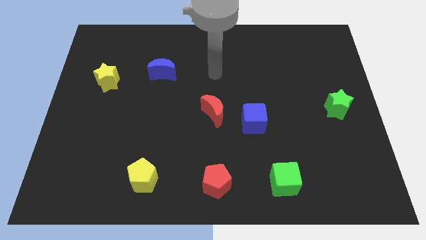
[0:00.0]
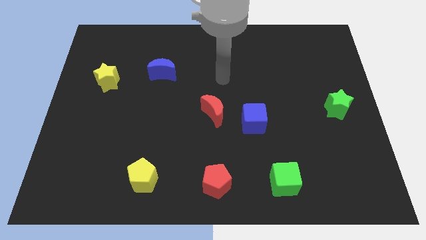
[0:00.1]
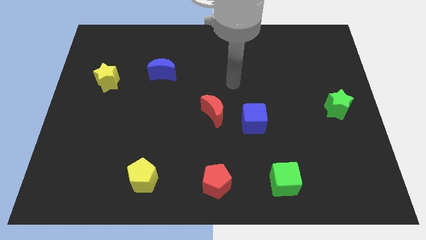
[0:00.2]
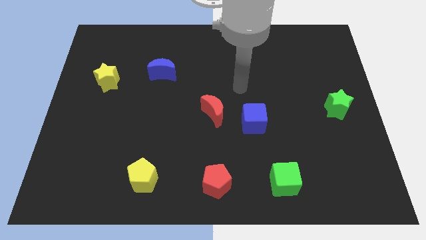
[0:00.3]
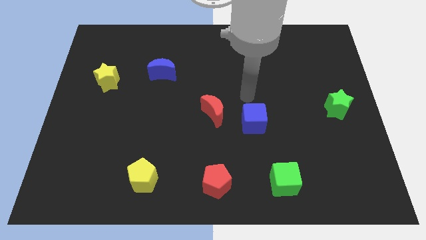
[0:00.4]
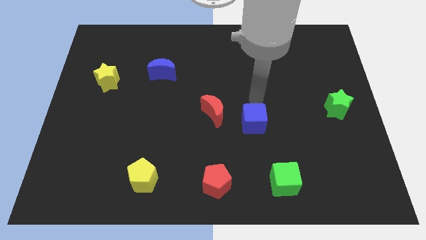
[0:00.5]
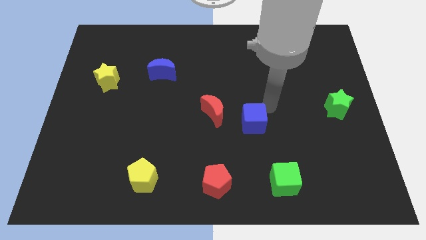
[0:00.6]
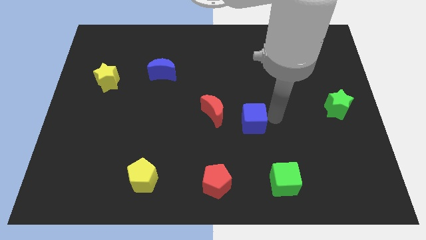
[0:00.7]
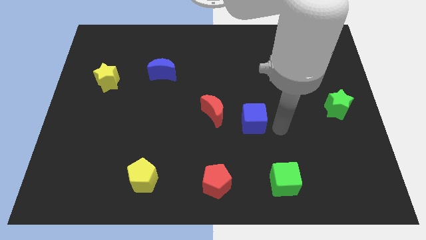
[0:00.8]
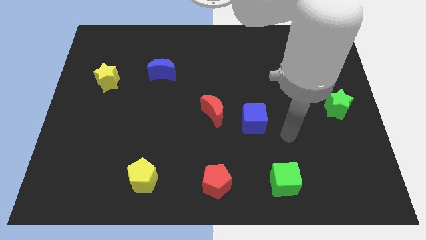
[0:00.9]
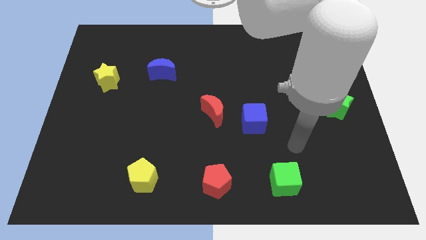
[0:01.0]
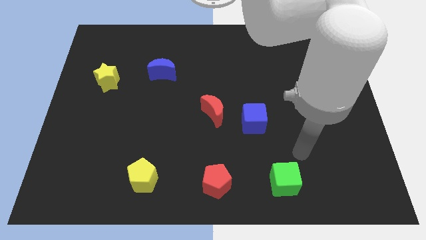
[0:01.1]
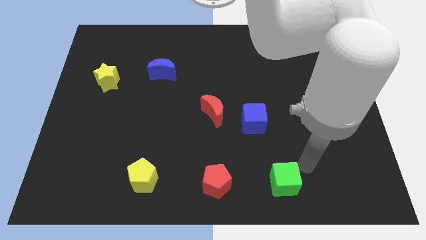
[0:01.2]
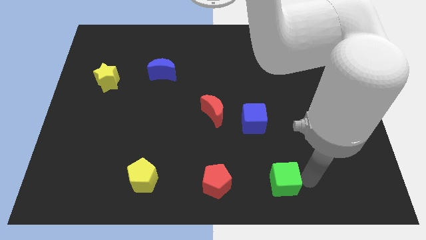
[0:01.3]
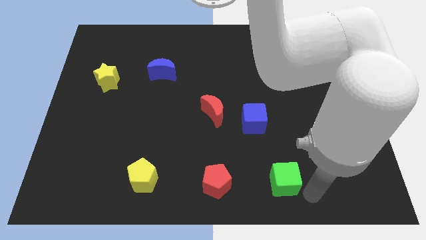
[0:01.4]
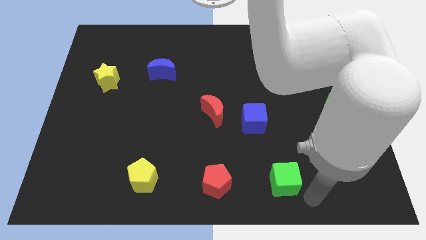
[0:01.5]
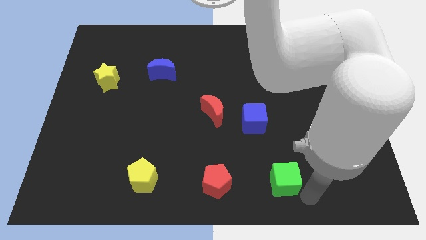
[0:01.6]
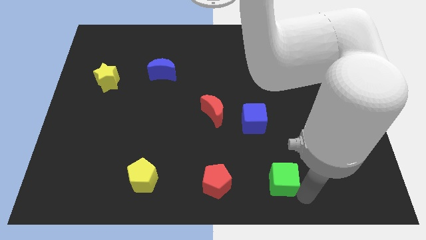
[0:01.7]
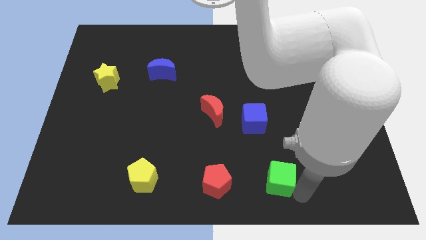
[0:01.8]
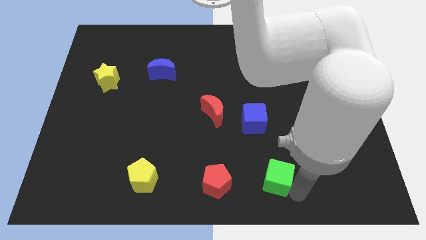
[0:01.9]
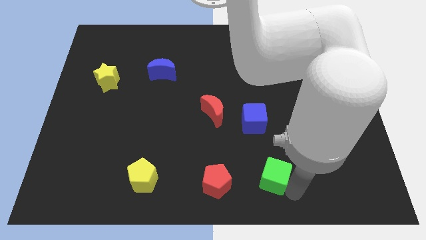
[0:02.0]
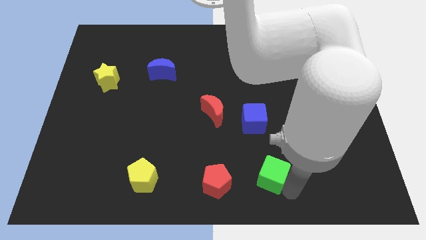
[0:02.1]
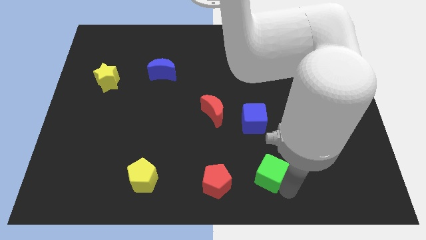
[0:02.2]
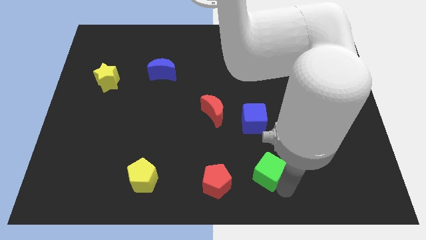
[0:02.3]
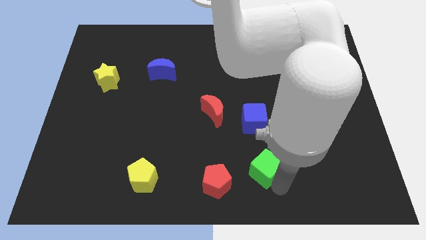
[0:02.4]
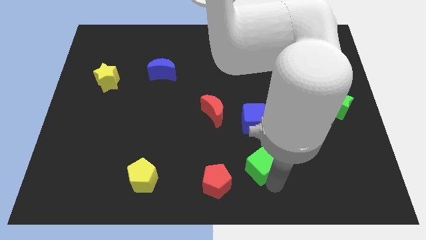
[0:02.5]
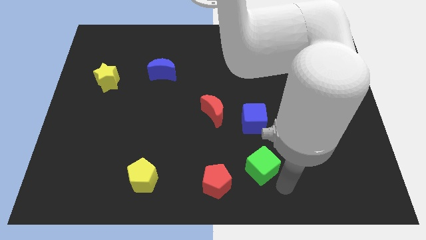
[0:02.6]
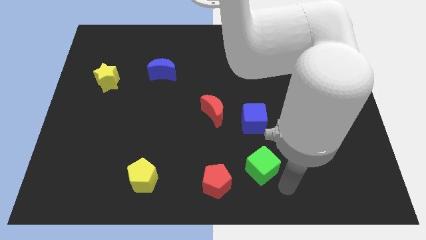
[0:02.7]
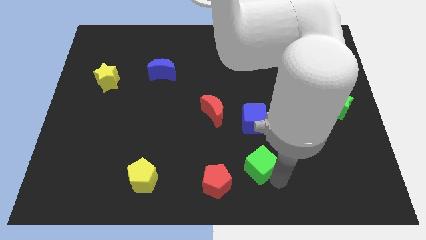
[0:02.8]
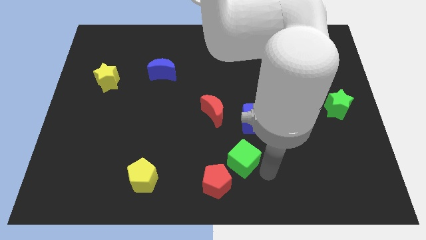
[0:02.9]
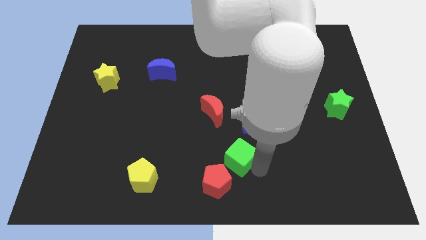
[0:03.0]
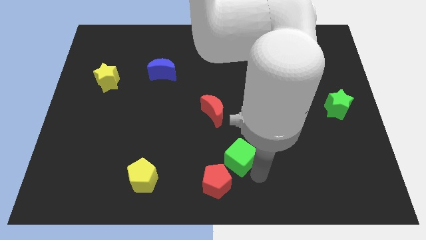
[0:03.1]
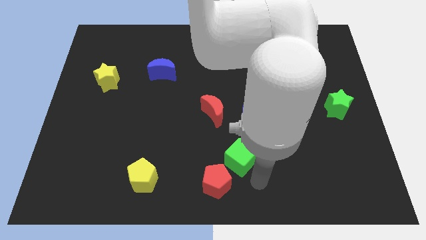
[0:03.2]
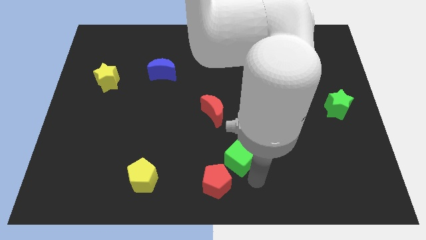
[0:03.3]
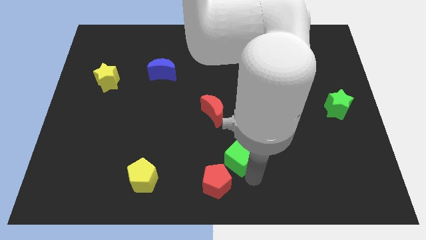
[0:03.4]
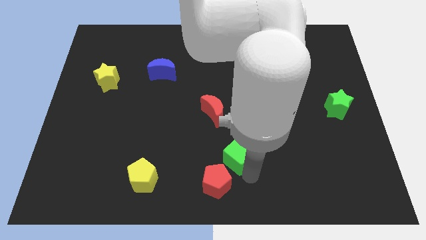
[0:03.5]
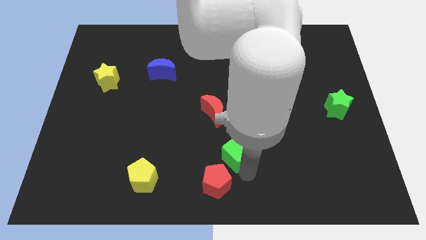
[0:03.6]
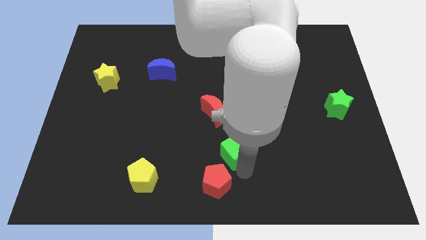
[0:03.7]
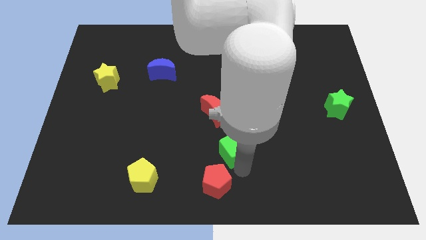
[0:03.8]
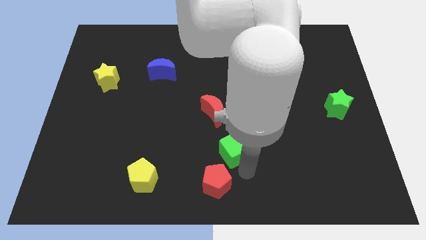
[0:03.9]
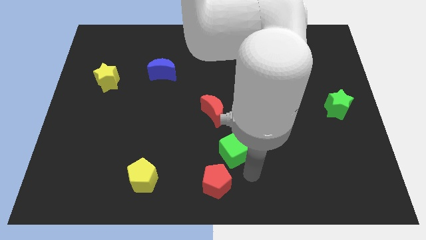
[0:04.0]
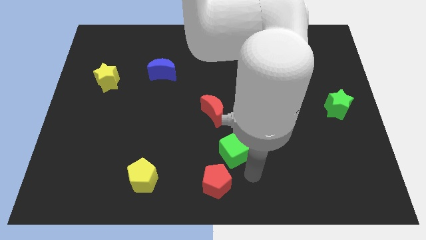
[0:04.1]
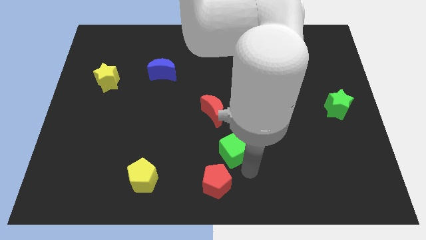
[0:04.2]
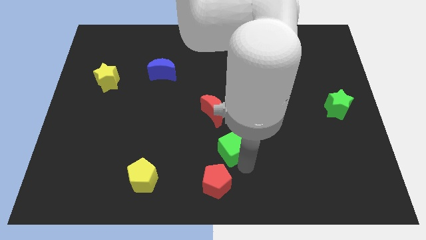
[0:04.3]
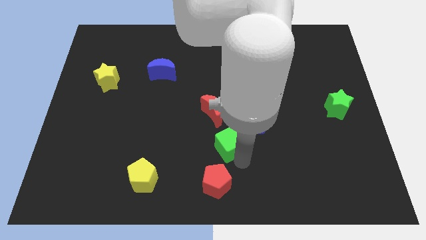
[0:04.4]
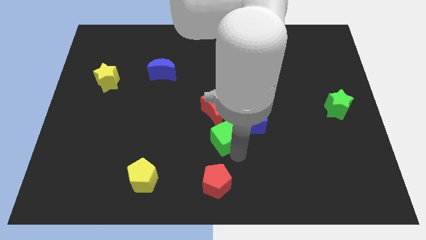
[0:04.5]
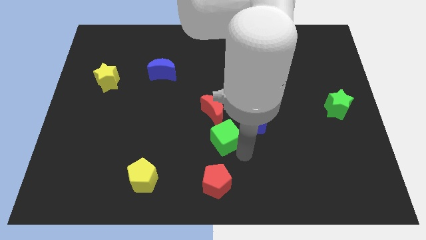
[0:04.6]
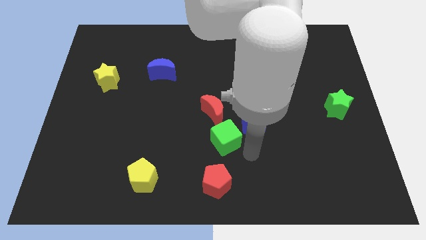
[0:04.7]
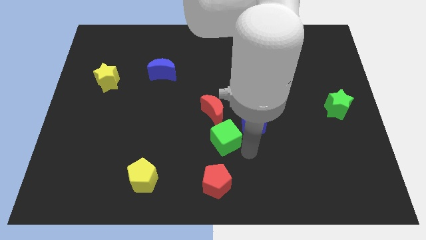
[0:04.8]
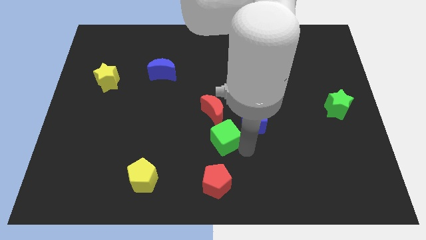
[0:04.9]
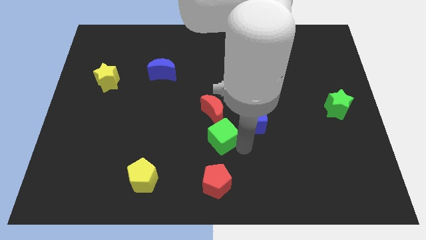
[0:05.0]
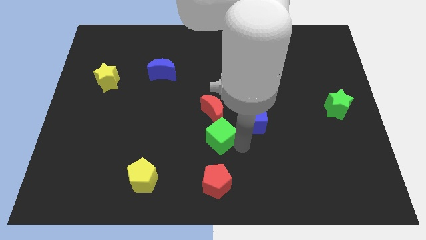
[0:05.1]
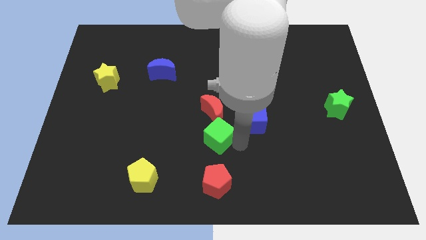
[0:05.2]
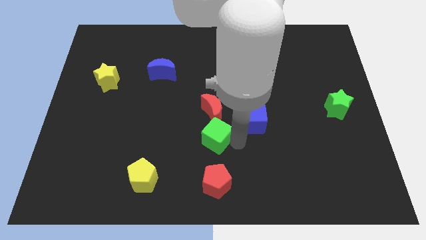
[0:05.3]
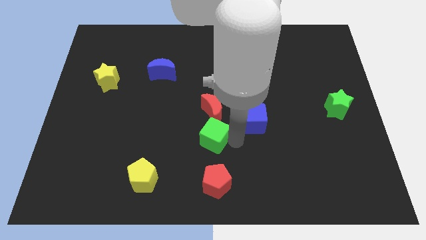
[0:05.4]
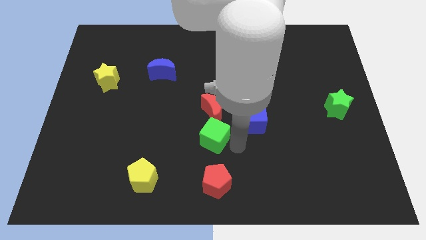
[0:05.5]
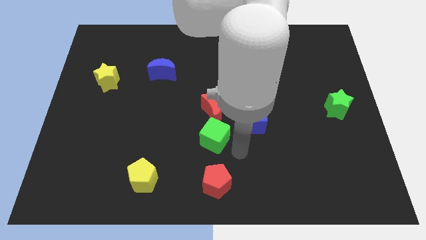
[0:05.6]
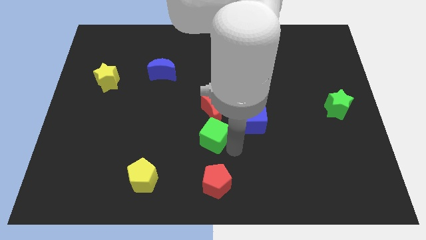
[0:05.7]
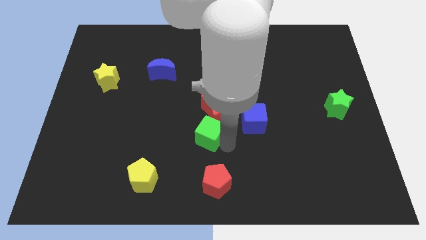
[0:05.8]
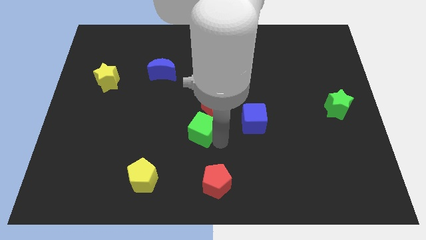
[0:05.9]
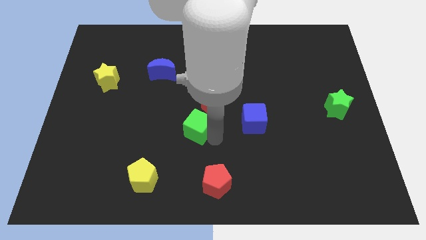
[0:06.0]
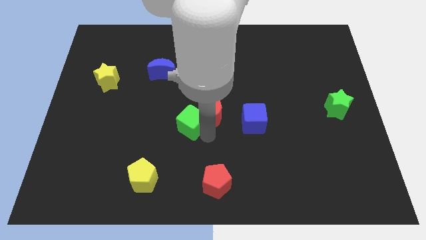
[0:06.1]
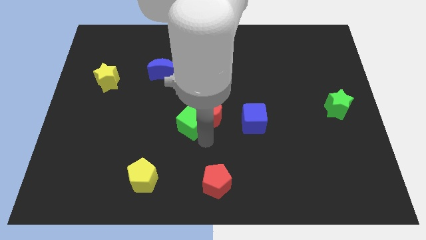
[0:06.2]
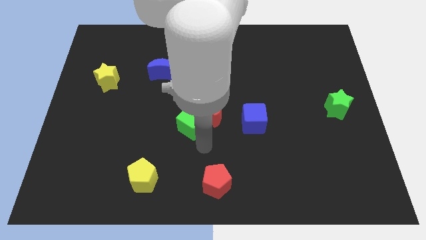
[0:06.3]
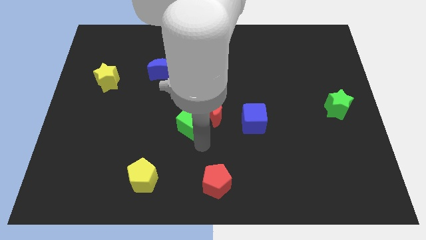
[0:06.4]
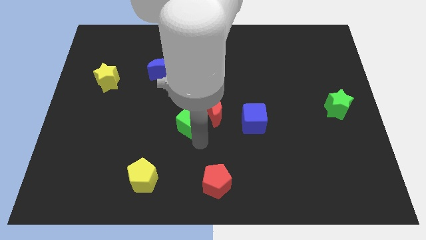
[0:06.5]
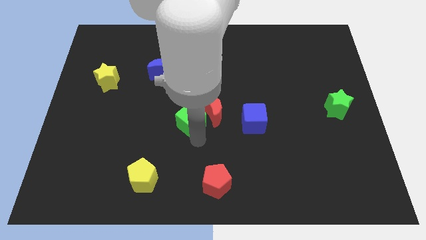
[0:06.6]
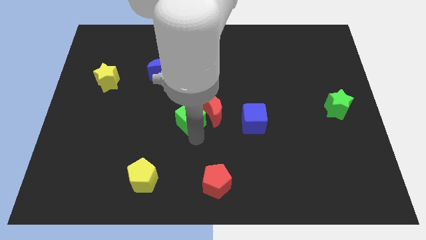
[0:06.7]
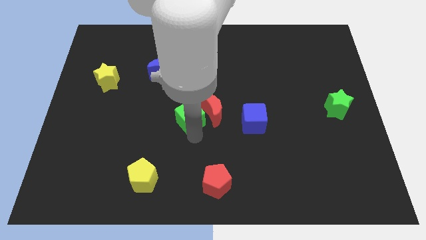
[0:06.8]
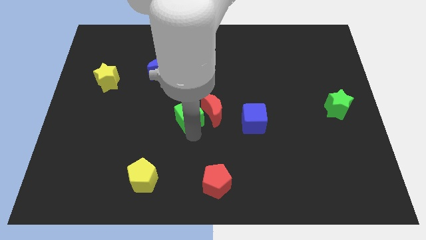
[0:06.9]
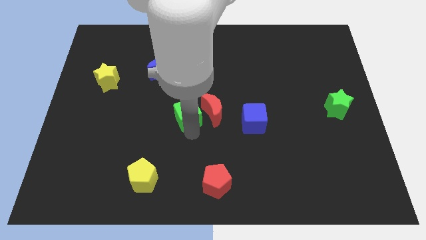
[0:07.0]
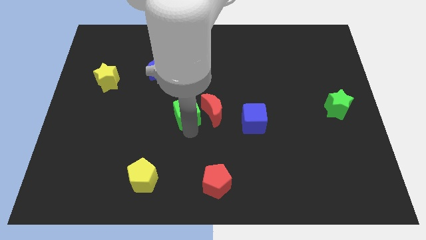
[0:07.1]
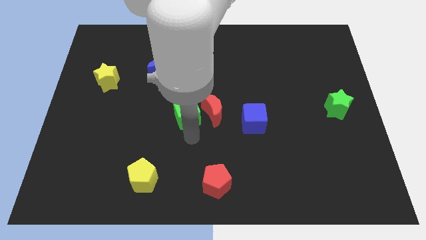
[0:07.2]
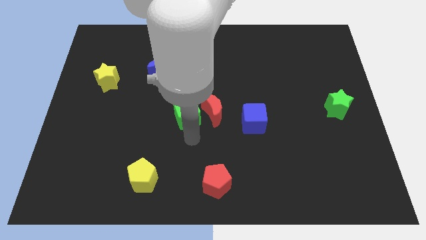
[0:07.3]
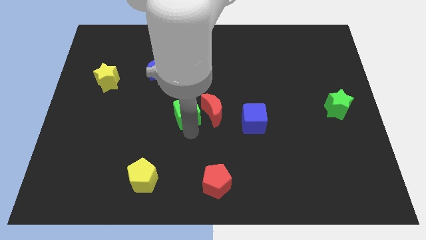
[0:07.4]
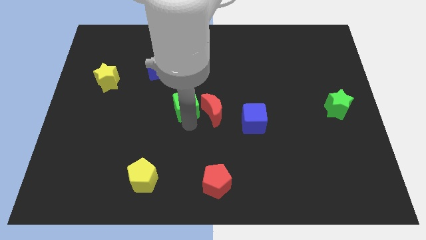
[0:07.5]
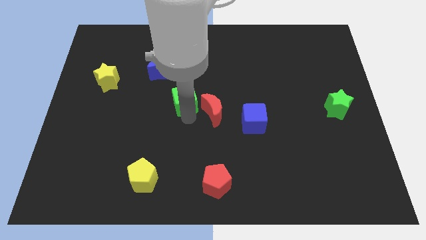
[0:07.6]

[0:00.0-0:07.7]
move the green cube to the bottom right side of the blue moon

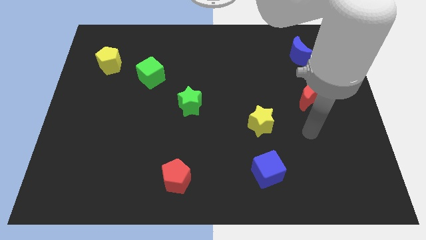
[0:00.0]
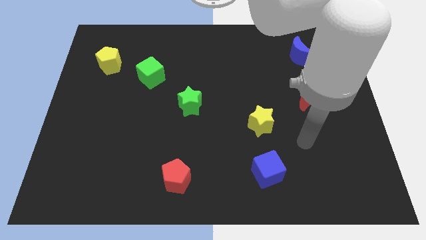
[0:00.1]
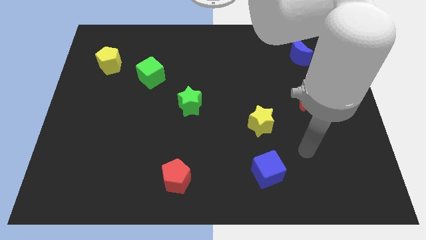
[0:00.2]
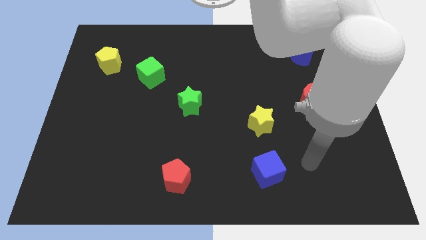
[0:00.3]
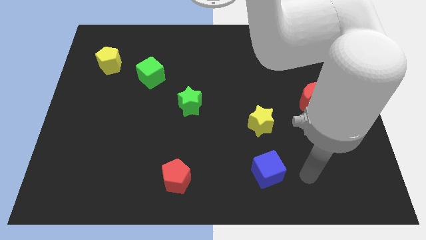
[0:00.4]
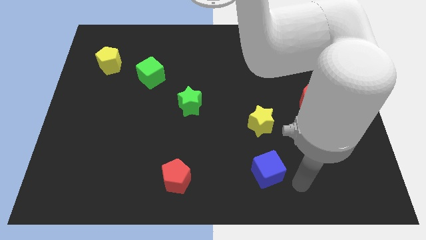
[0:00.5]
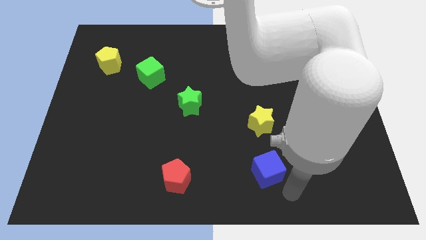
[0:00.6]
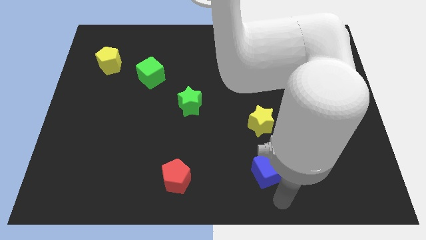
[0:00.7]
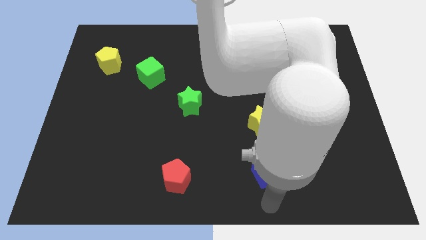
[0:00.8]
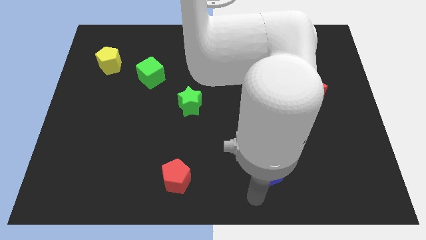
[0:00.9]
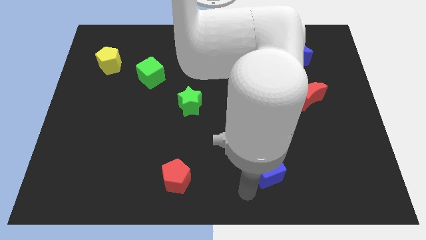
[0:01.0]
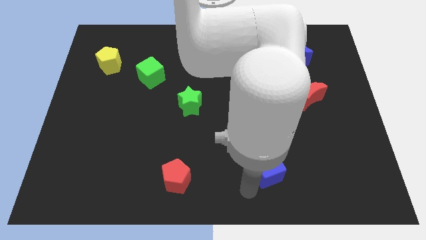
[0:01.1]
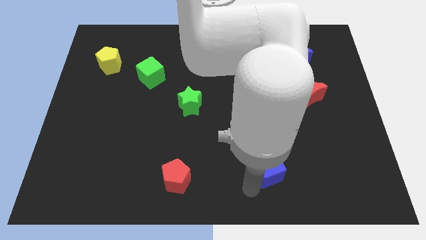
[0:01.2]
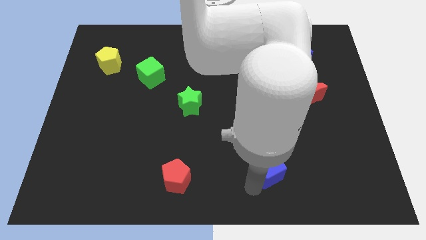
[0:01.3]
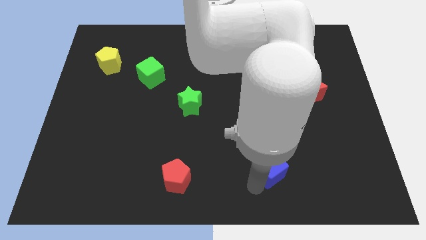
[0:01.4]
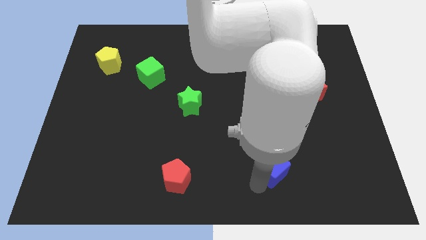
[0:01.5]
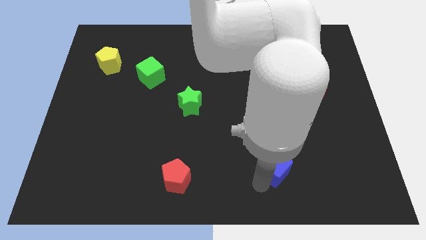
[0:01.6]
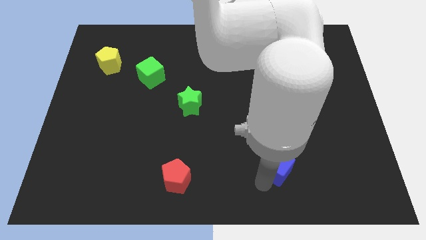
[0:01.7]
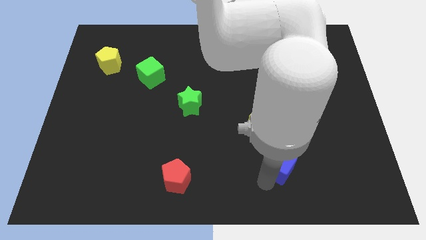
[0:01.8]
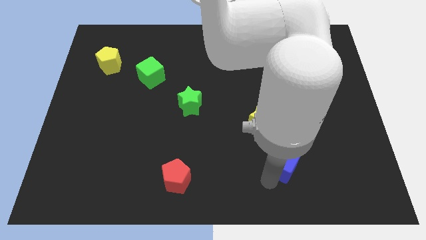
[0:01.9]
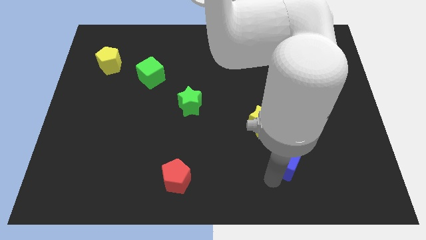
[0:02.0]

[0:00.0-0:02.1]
put the blue cube to the bottom right of the yellow star
